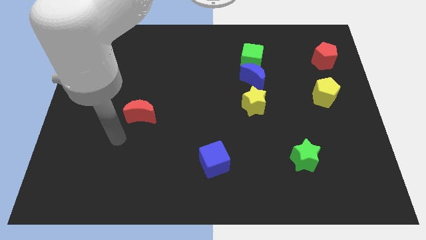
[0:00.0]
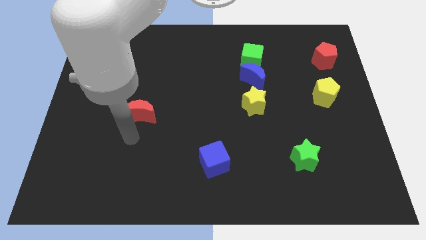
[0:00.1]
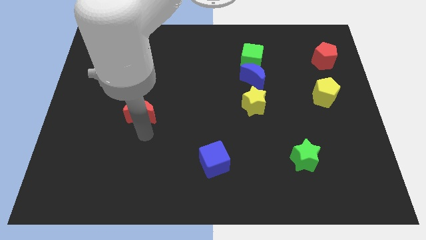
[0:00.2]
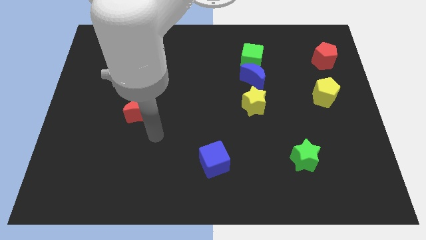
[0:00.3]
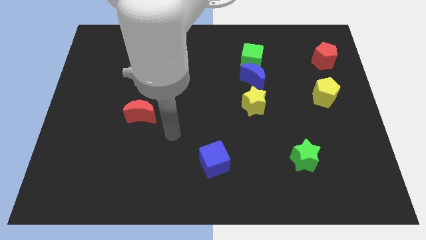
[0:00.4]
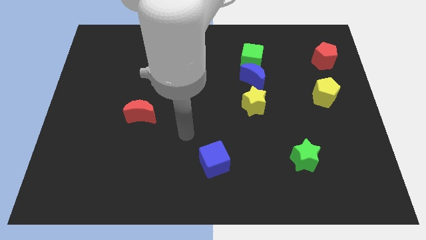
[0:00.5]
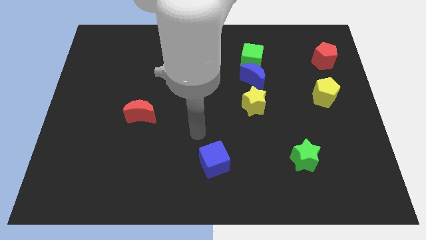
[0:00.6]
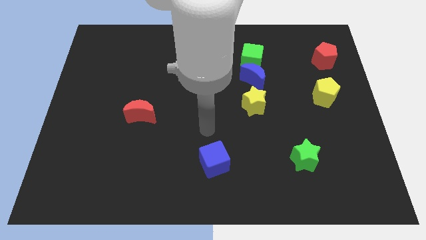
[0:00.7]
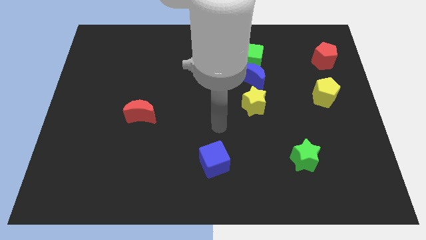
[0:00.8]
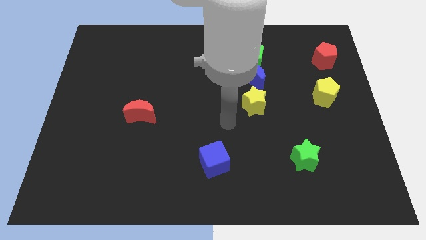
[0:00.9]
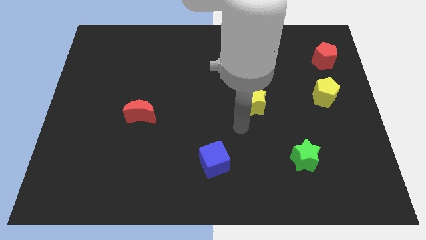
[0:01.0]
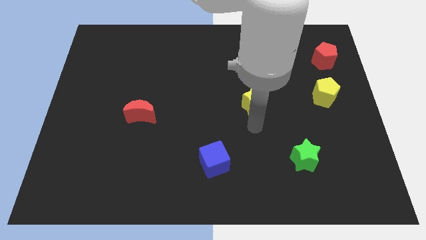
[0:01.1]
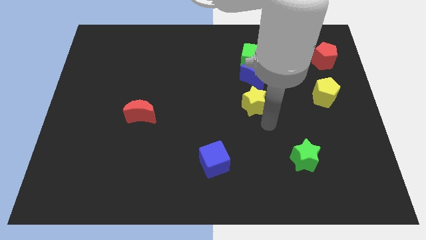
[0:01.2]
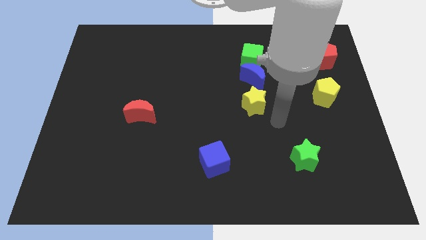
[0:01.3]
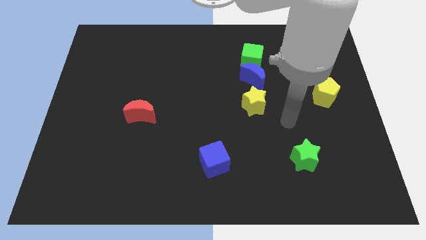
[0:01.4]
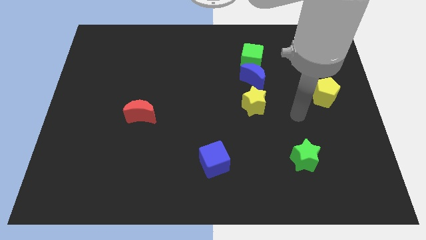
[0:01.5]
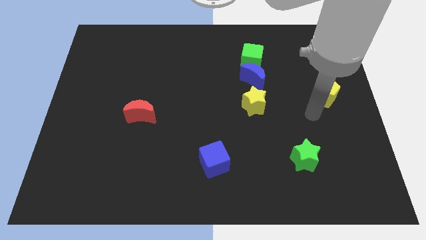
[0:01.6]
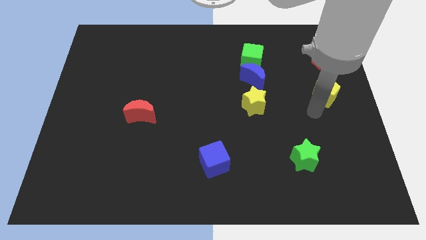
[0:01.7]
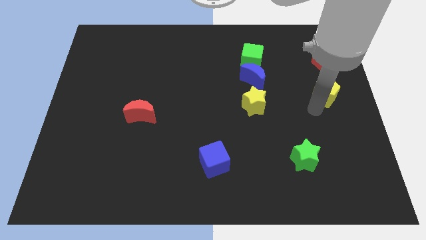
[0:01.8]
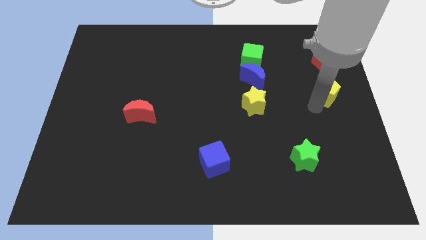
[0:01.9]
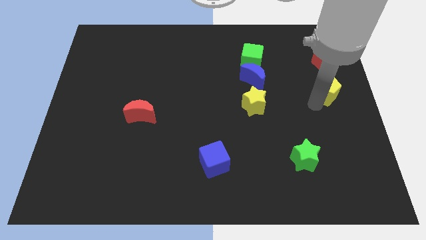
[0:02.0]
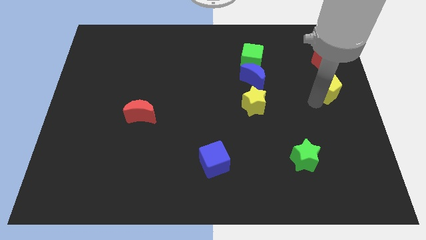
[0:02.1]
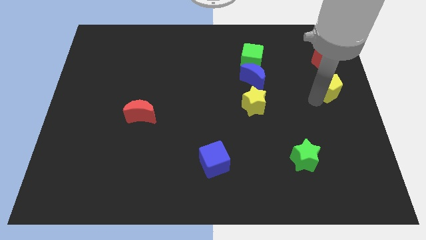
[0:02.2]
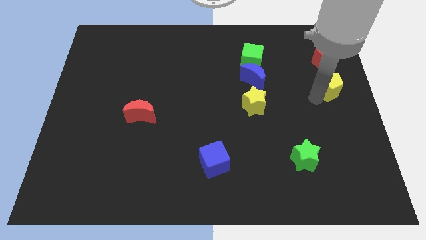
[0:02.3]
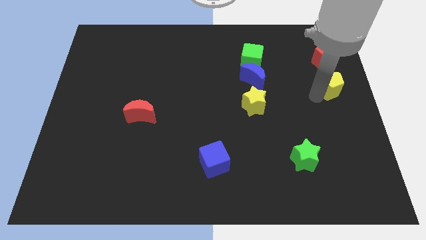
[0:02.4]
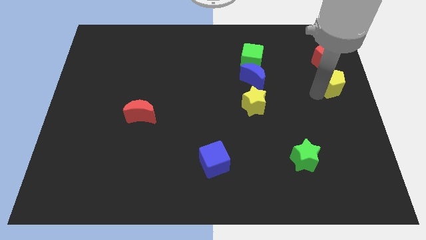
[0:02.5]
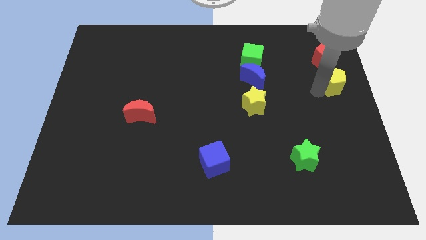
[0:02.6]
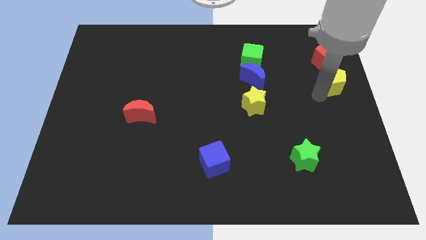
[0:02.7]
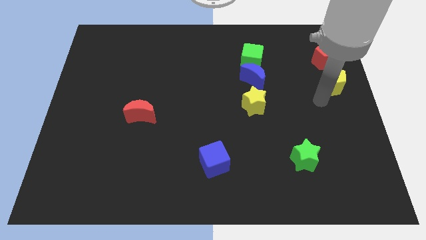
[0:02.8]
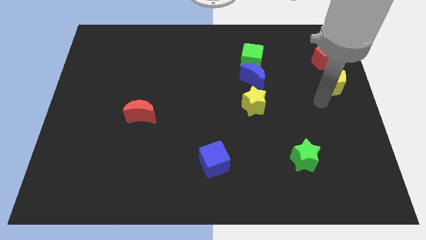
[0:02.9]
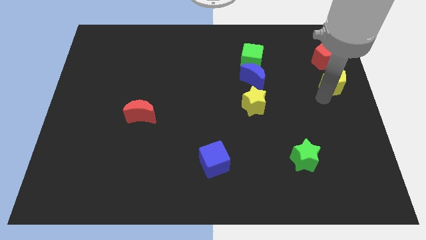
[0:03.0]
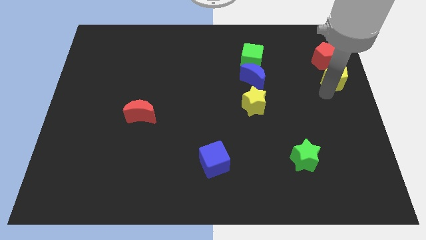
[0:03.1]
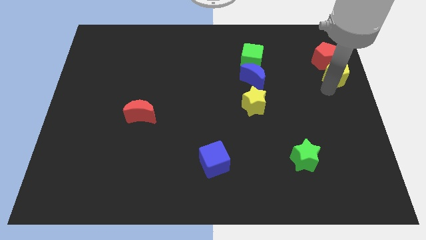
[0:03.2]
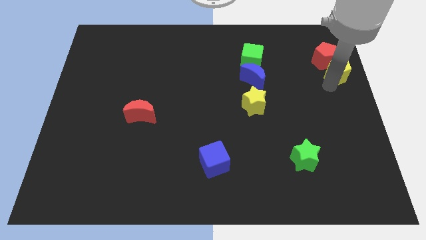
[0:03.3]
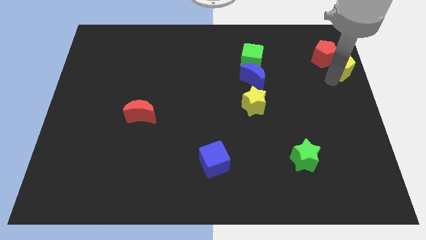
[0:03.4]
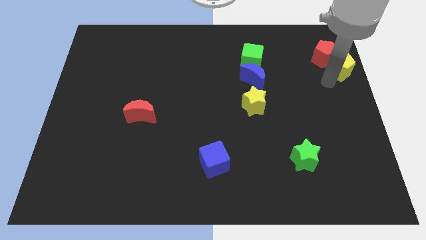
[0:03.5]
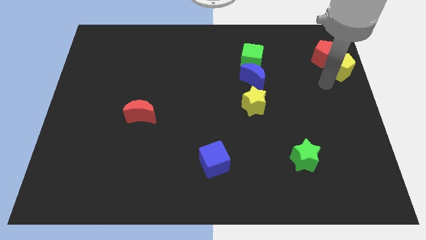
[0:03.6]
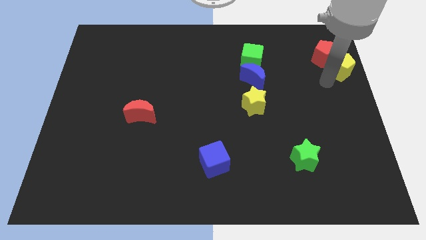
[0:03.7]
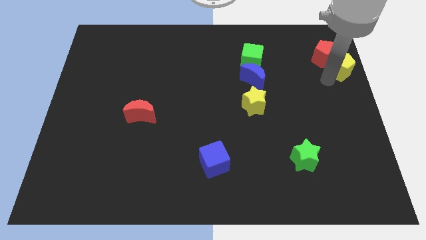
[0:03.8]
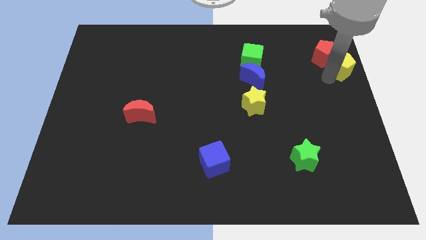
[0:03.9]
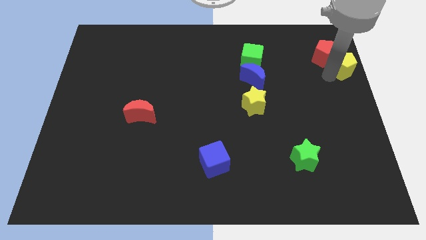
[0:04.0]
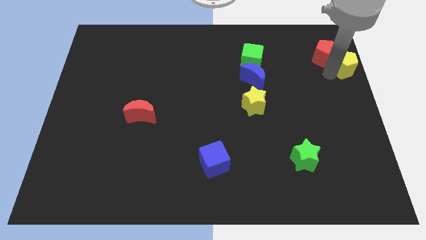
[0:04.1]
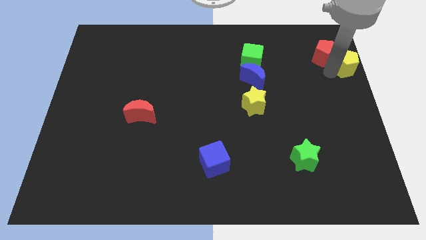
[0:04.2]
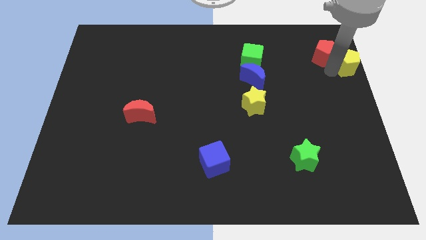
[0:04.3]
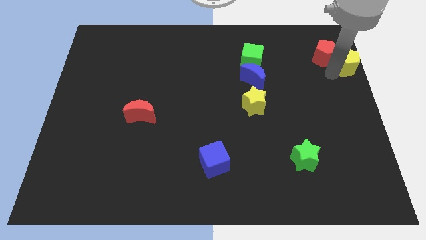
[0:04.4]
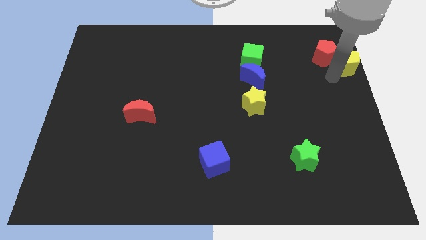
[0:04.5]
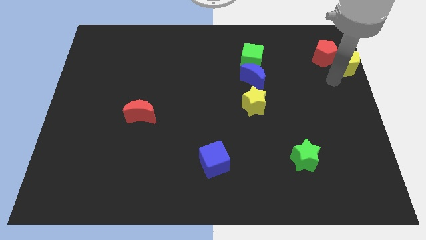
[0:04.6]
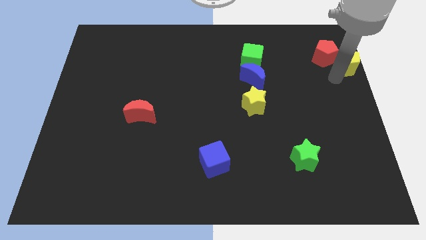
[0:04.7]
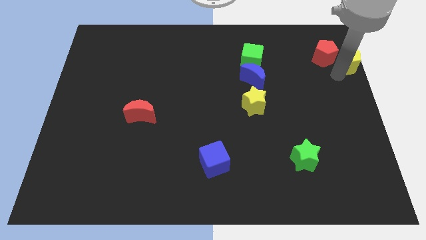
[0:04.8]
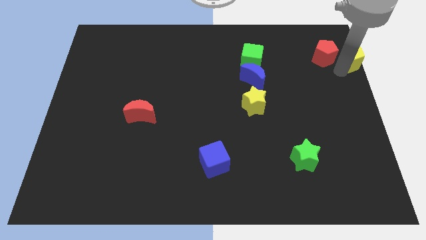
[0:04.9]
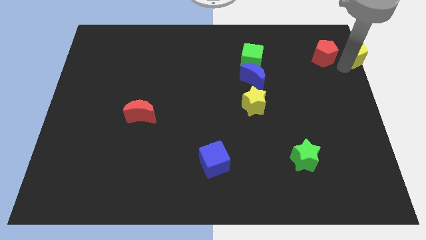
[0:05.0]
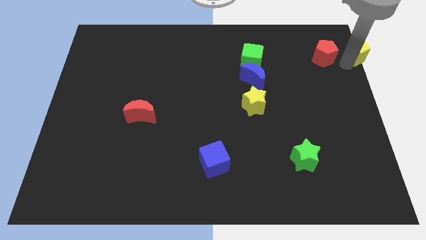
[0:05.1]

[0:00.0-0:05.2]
put the yellow pentagon to the upper right corner
